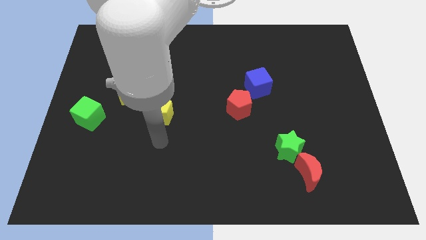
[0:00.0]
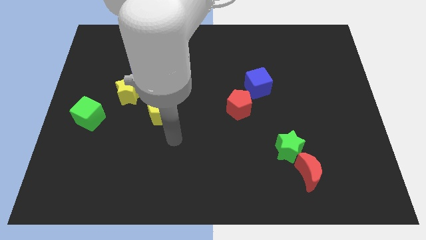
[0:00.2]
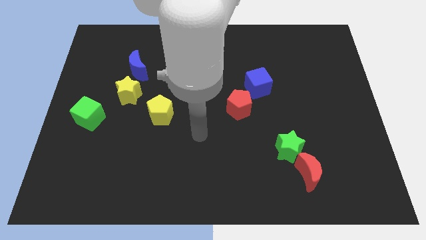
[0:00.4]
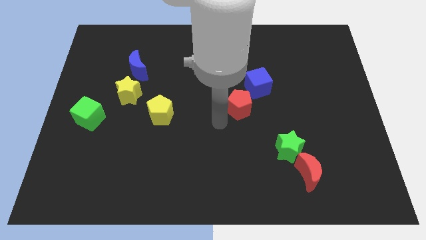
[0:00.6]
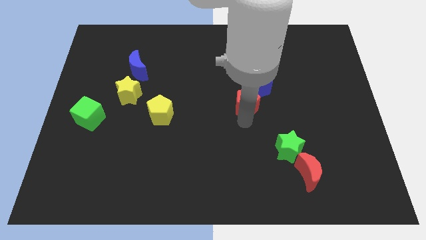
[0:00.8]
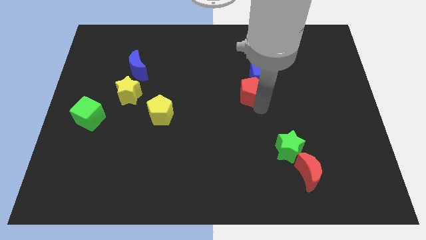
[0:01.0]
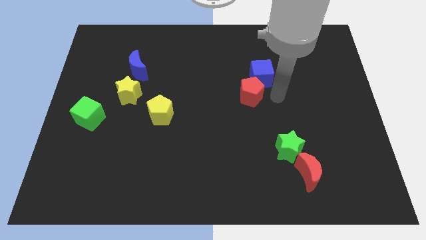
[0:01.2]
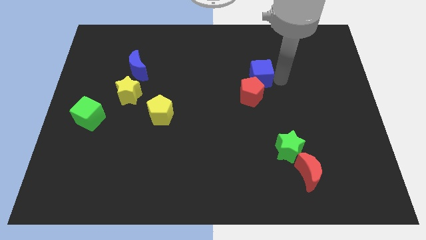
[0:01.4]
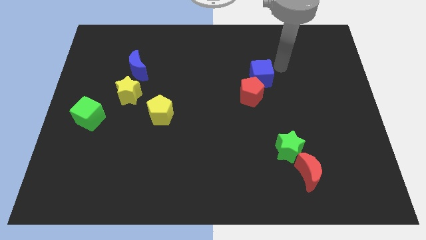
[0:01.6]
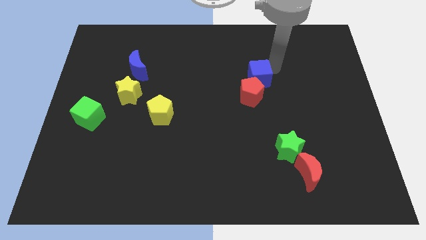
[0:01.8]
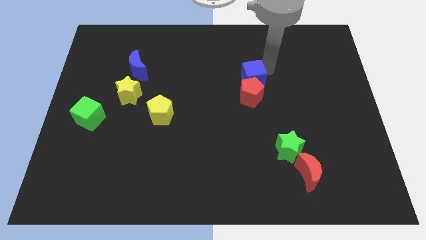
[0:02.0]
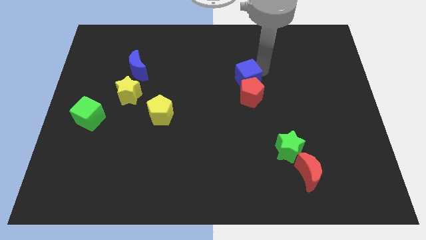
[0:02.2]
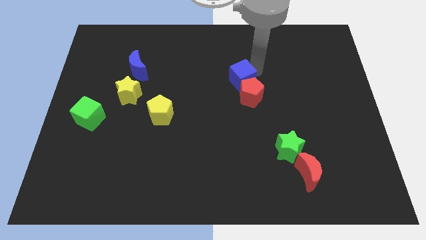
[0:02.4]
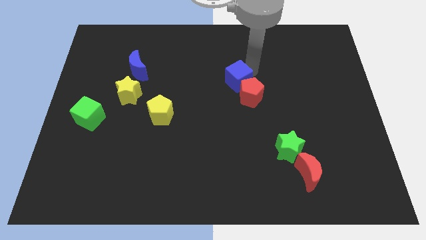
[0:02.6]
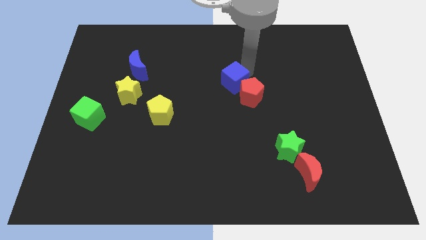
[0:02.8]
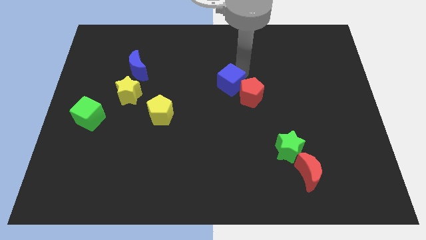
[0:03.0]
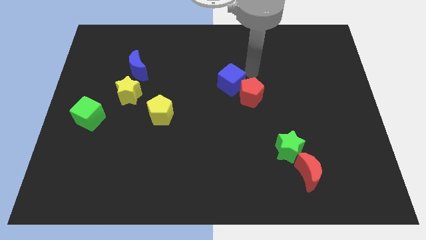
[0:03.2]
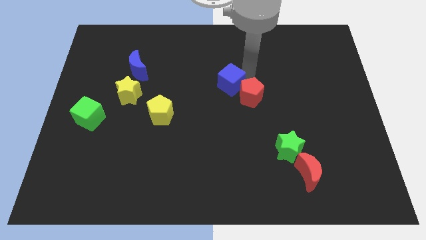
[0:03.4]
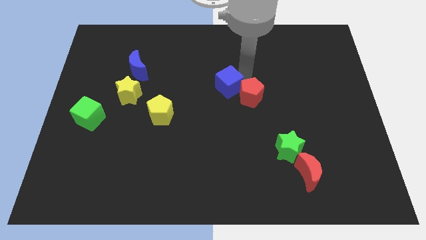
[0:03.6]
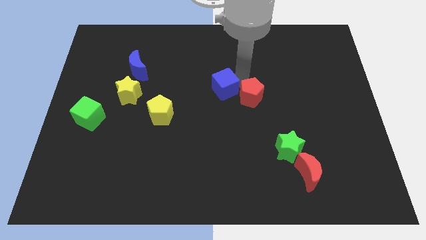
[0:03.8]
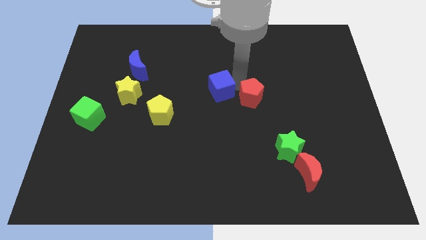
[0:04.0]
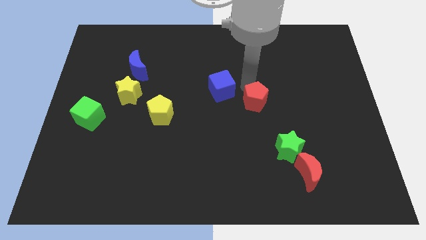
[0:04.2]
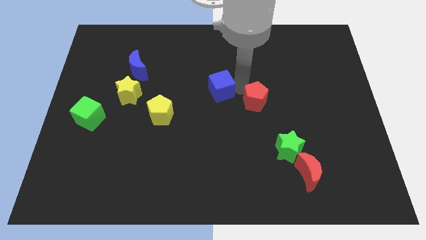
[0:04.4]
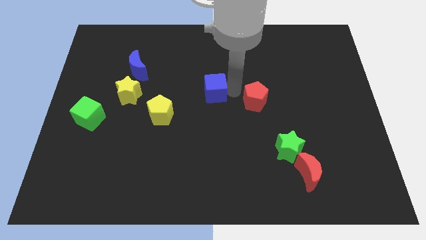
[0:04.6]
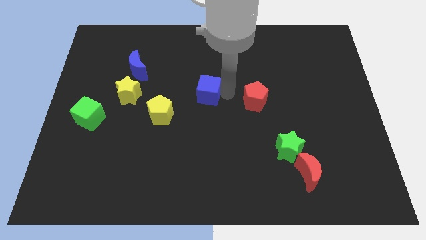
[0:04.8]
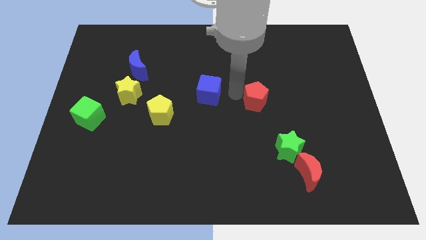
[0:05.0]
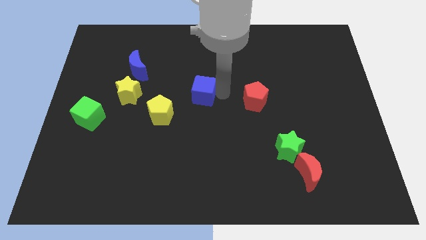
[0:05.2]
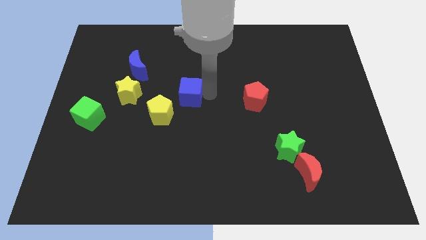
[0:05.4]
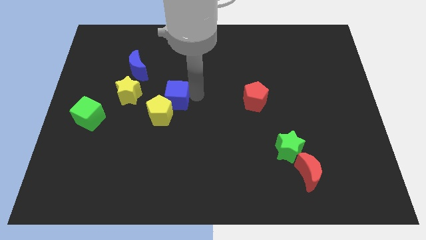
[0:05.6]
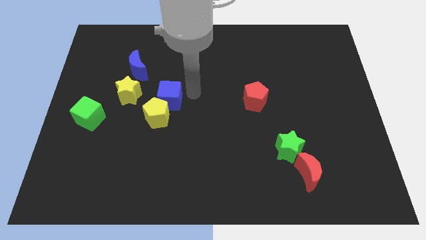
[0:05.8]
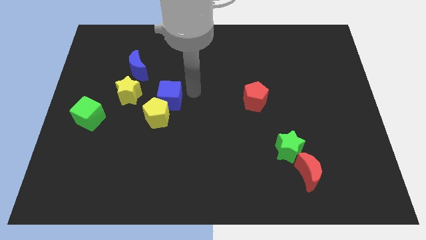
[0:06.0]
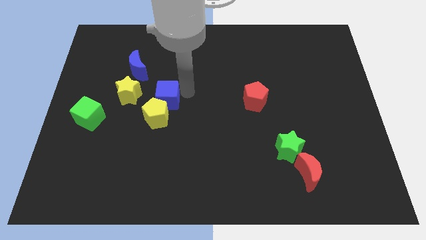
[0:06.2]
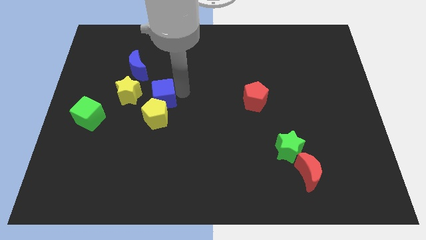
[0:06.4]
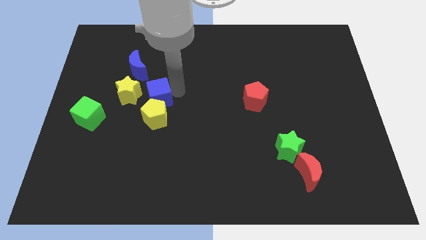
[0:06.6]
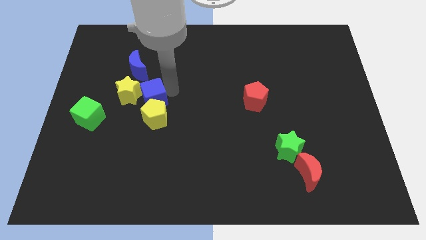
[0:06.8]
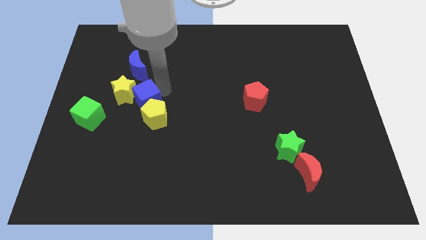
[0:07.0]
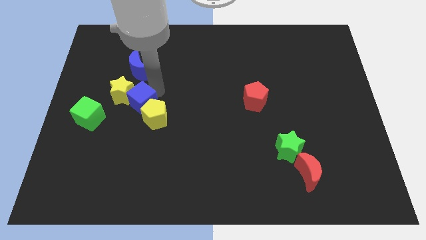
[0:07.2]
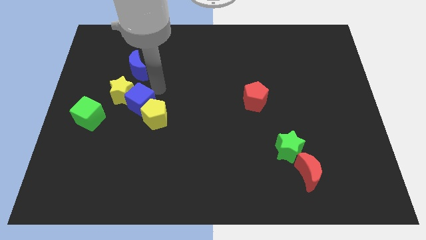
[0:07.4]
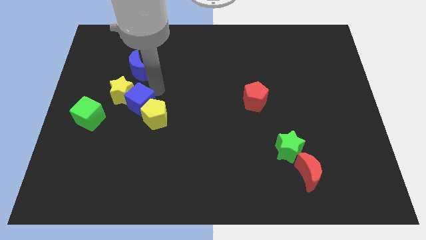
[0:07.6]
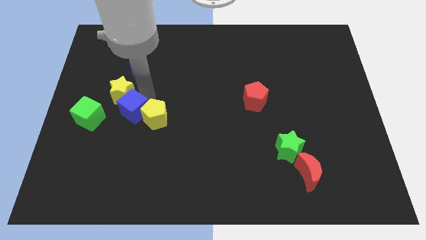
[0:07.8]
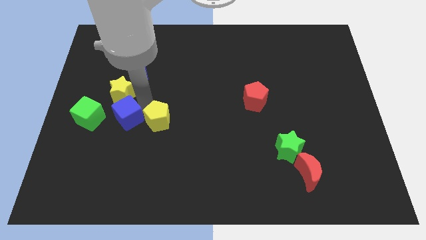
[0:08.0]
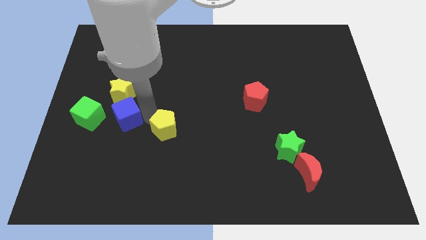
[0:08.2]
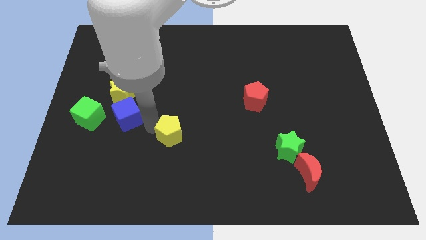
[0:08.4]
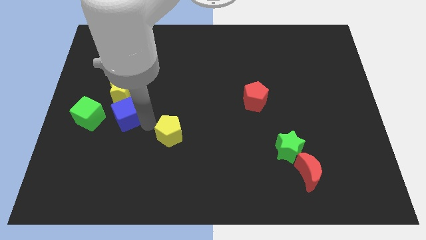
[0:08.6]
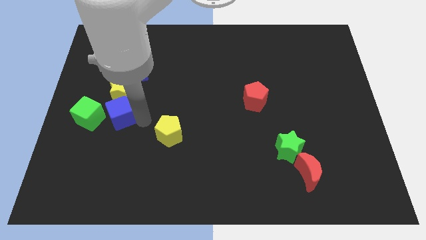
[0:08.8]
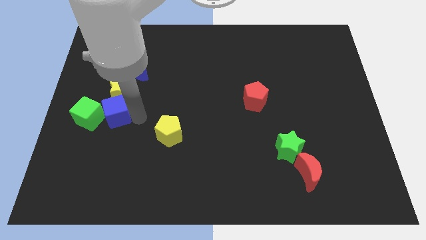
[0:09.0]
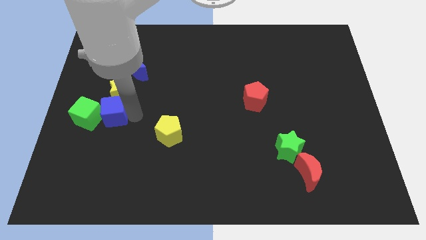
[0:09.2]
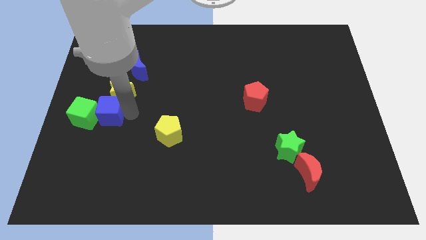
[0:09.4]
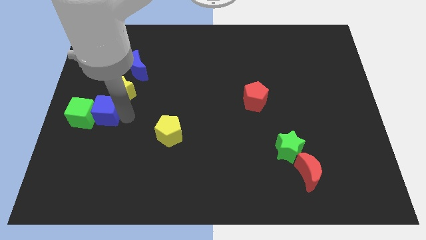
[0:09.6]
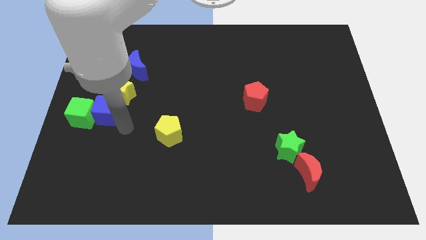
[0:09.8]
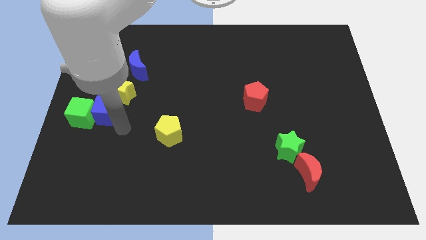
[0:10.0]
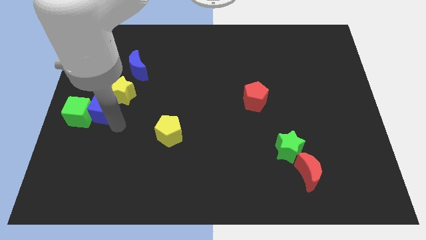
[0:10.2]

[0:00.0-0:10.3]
slide the blue cube to the center left

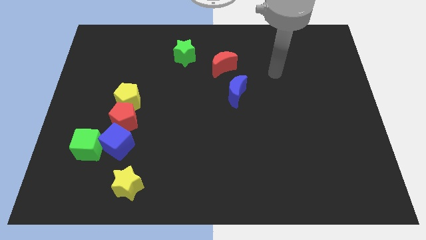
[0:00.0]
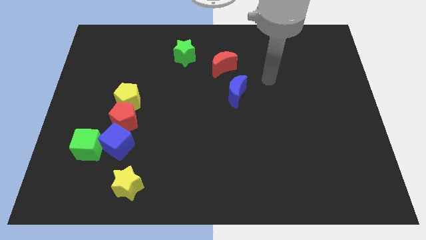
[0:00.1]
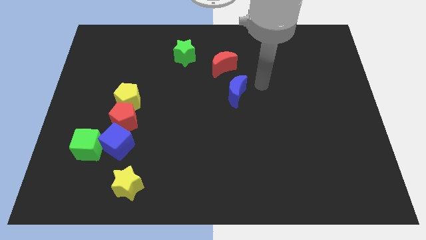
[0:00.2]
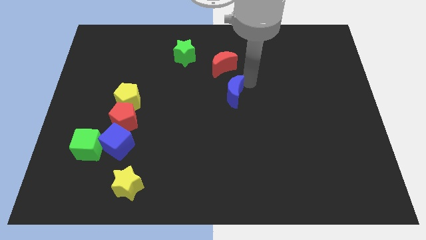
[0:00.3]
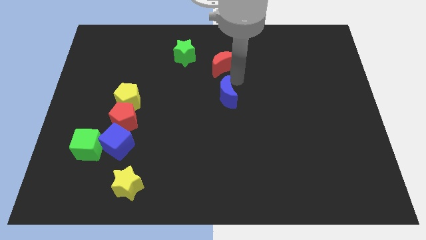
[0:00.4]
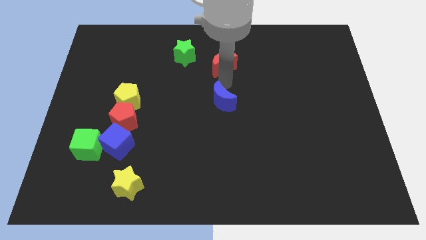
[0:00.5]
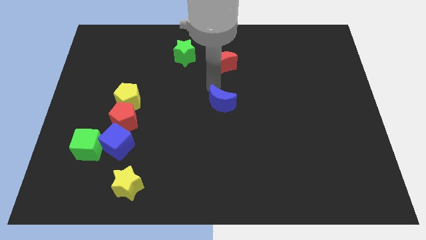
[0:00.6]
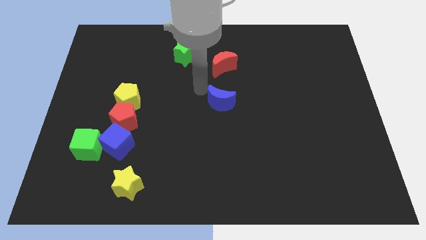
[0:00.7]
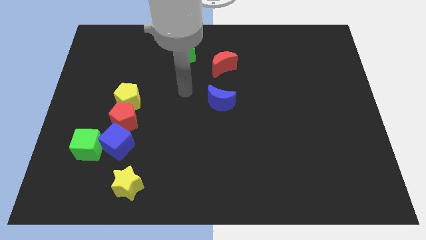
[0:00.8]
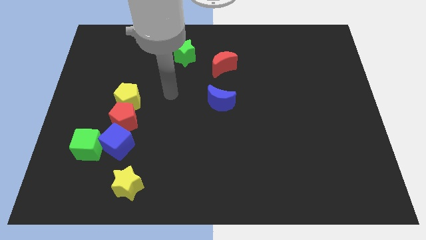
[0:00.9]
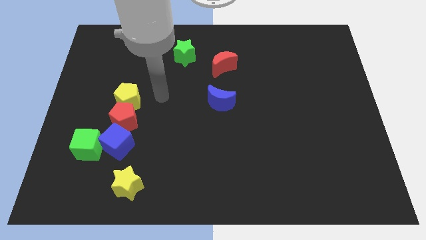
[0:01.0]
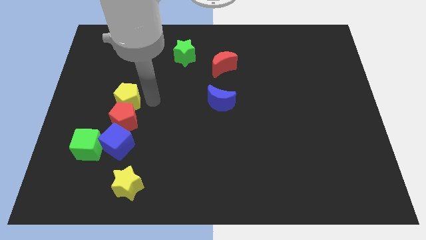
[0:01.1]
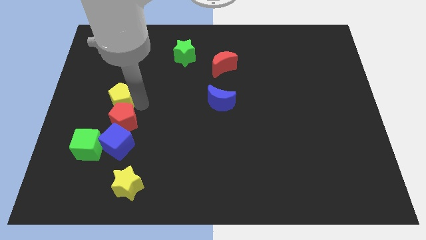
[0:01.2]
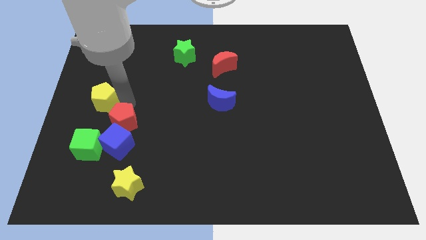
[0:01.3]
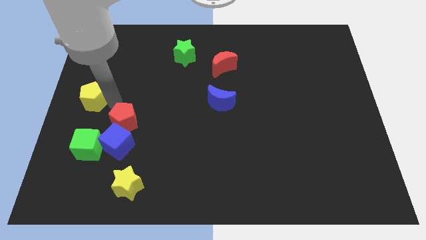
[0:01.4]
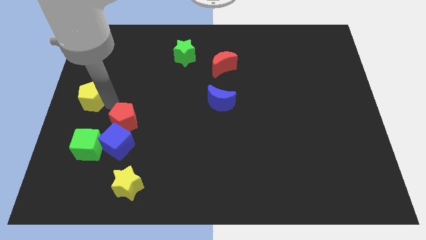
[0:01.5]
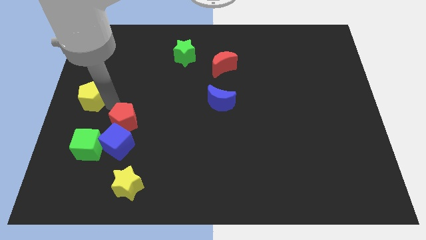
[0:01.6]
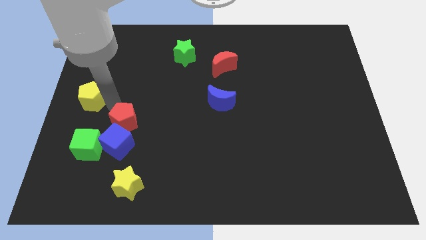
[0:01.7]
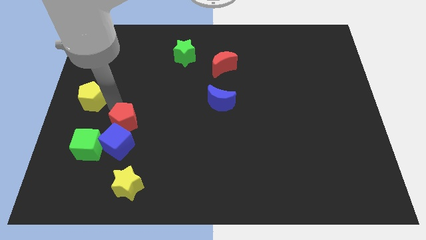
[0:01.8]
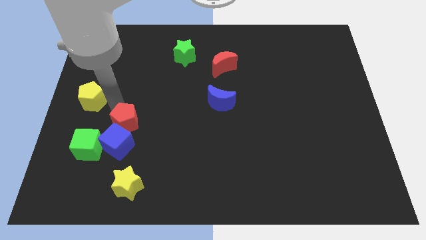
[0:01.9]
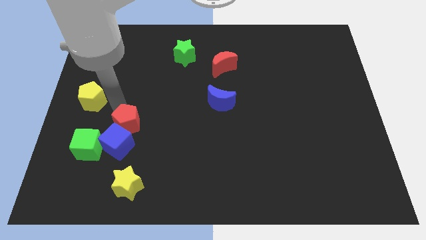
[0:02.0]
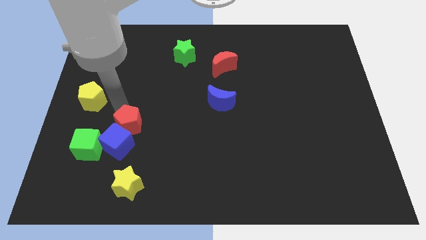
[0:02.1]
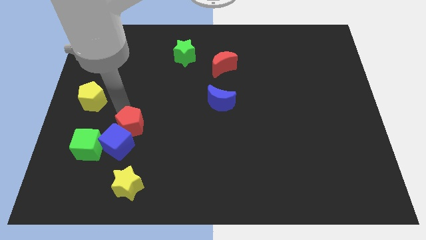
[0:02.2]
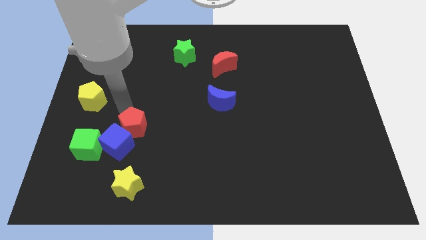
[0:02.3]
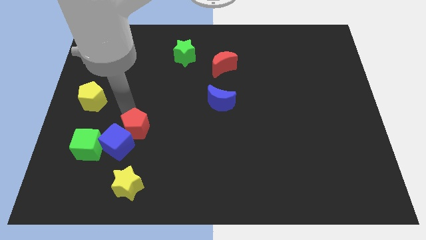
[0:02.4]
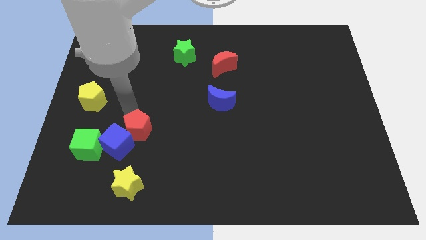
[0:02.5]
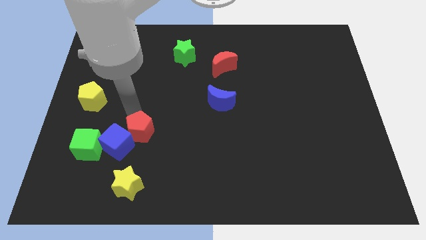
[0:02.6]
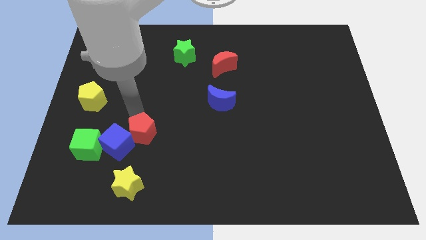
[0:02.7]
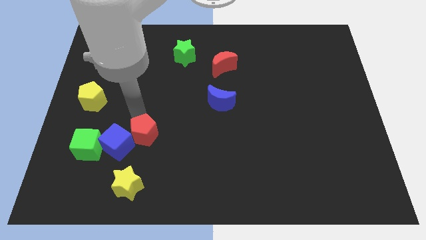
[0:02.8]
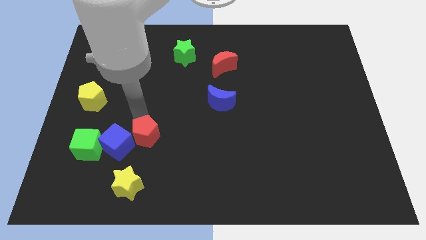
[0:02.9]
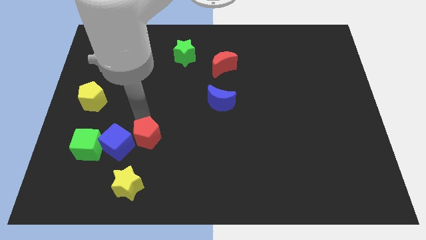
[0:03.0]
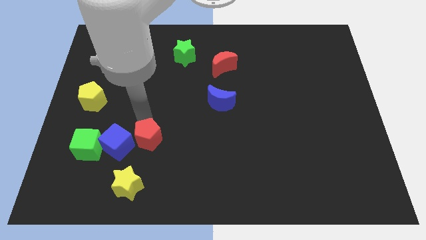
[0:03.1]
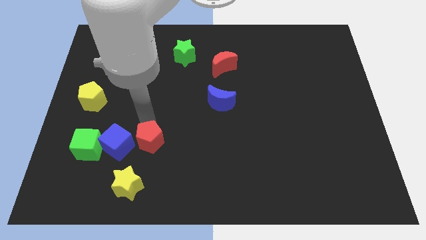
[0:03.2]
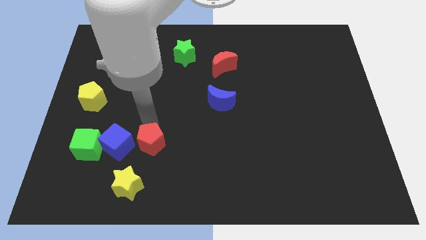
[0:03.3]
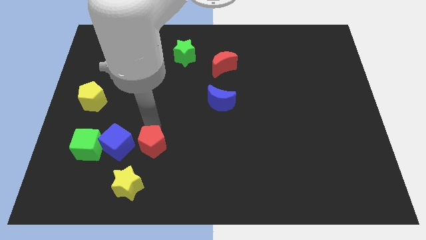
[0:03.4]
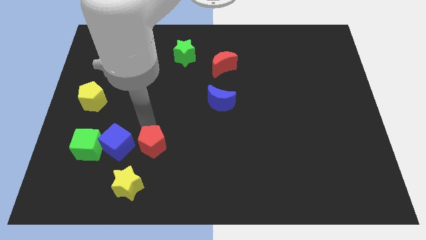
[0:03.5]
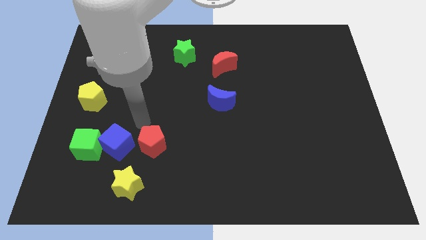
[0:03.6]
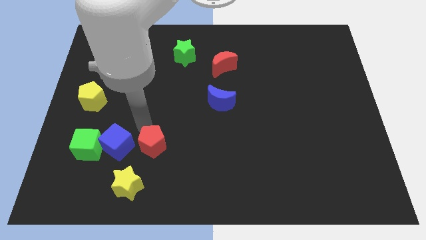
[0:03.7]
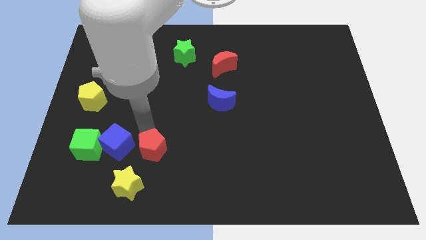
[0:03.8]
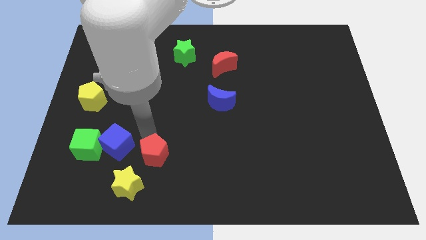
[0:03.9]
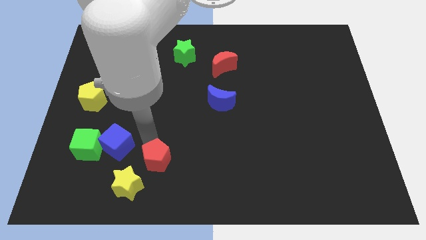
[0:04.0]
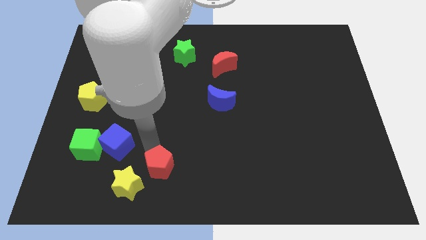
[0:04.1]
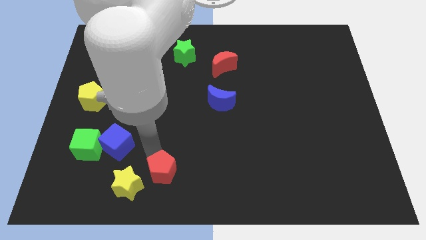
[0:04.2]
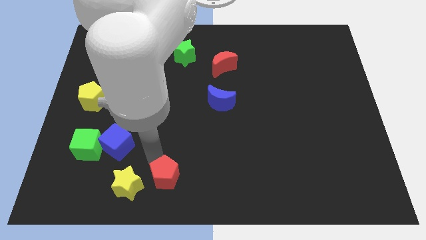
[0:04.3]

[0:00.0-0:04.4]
slide the red pentagon to the bottom
